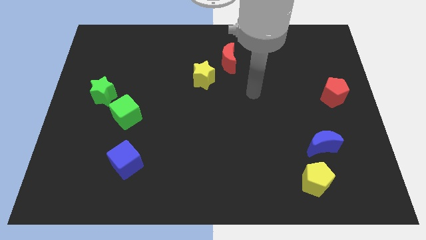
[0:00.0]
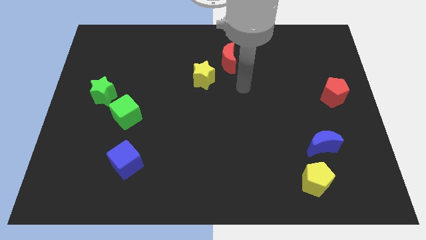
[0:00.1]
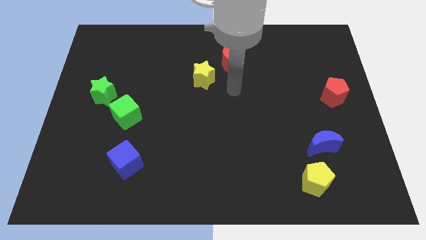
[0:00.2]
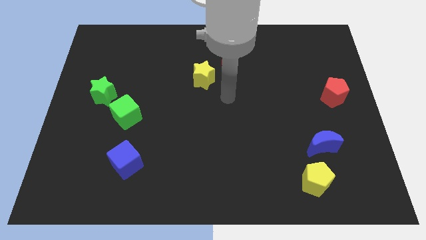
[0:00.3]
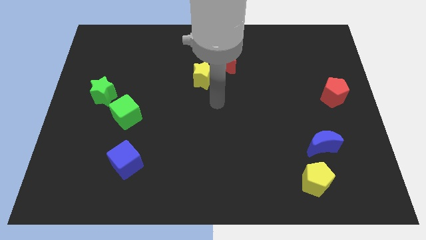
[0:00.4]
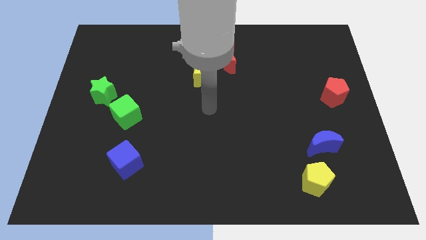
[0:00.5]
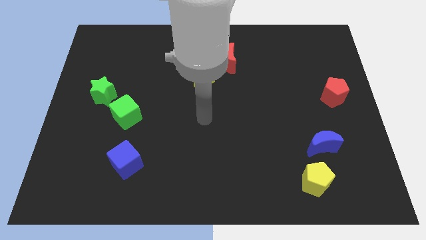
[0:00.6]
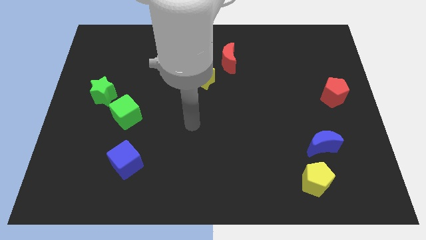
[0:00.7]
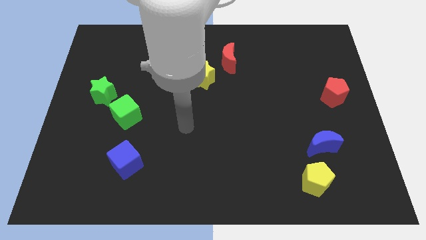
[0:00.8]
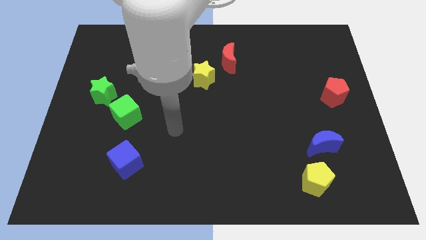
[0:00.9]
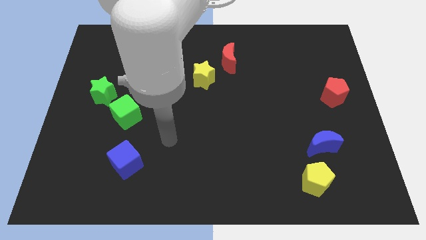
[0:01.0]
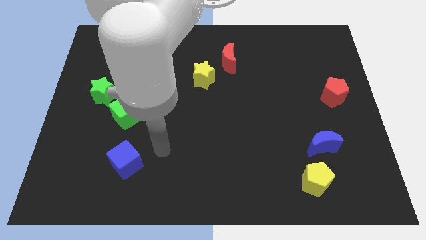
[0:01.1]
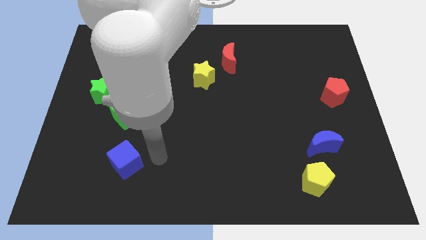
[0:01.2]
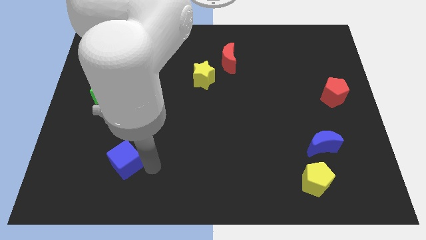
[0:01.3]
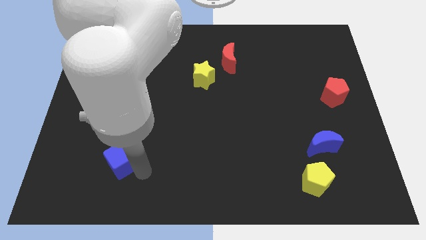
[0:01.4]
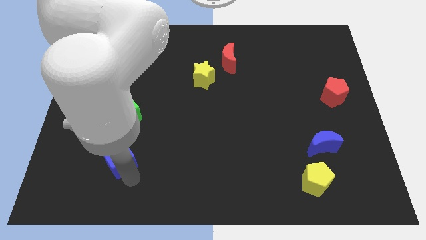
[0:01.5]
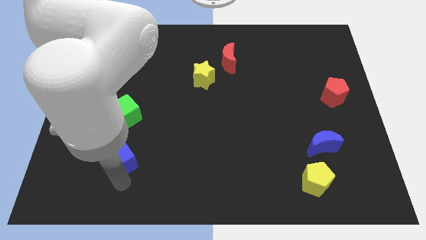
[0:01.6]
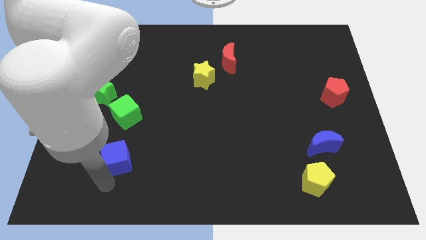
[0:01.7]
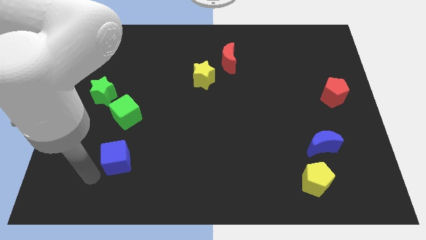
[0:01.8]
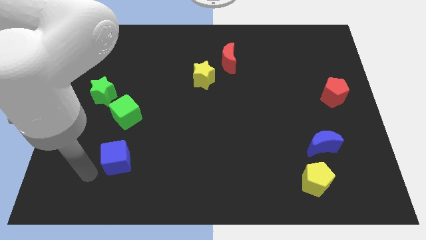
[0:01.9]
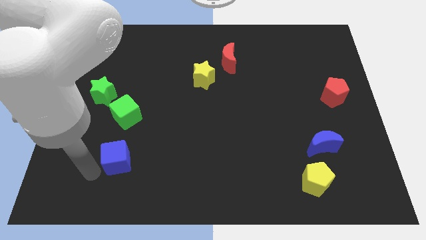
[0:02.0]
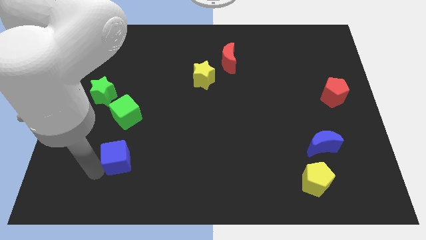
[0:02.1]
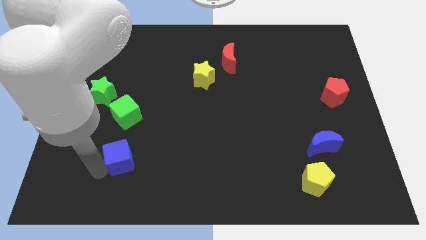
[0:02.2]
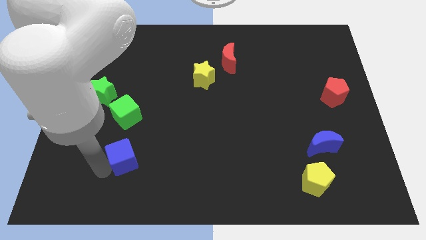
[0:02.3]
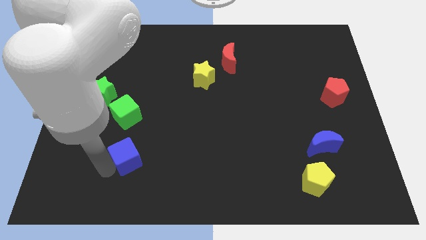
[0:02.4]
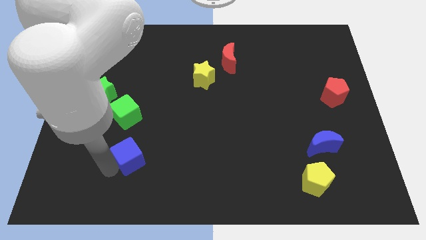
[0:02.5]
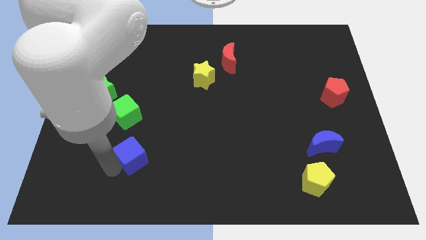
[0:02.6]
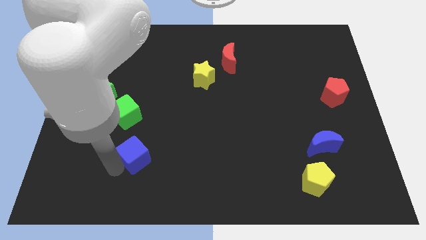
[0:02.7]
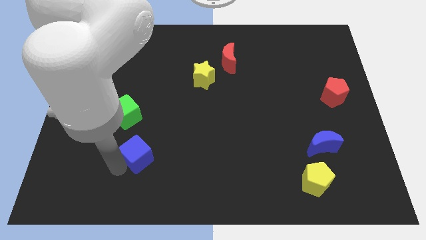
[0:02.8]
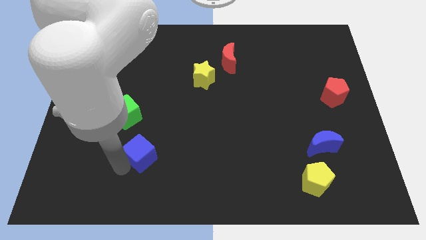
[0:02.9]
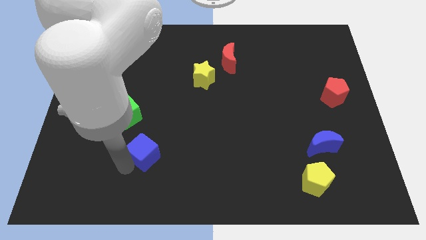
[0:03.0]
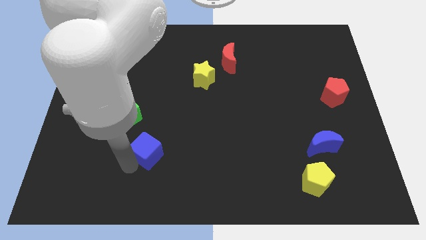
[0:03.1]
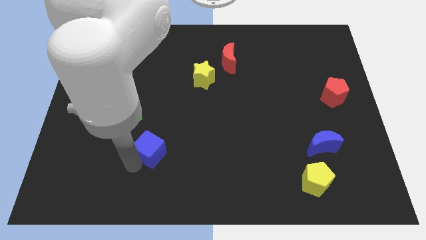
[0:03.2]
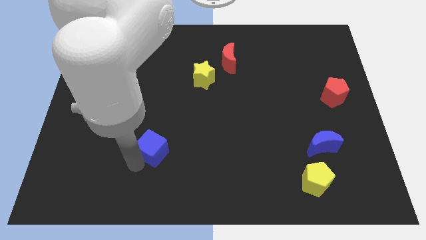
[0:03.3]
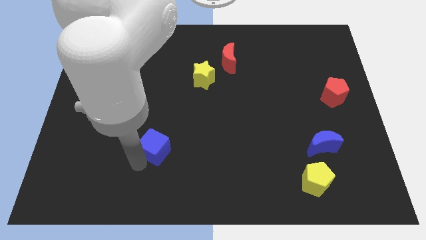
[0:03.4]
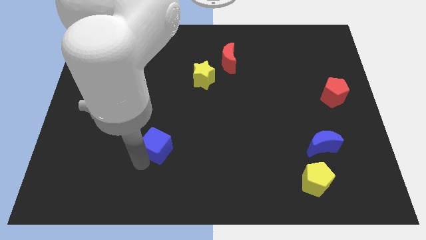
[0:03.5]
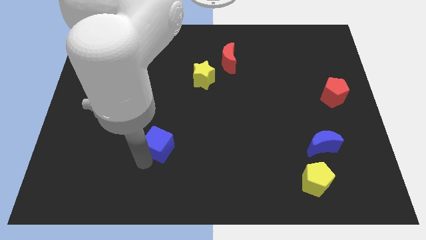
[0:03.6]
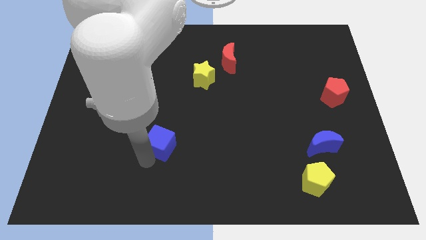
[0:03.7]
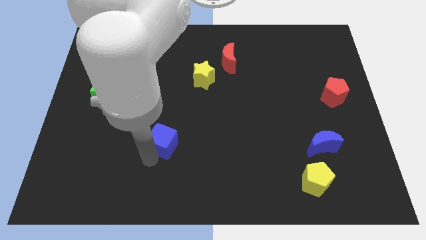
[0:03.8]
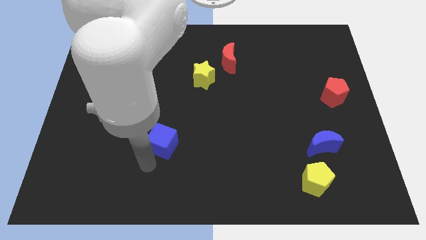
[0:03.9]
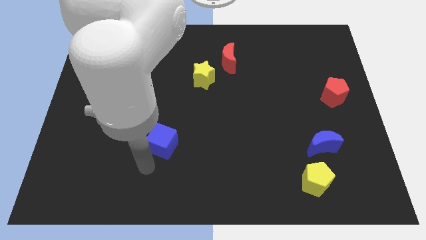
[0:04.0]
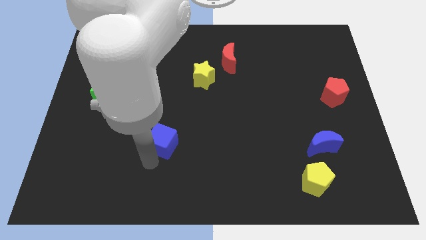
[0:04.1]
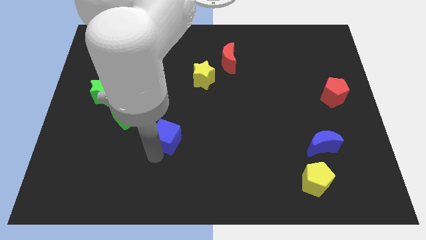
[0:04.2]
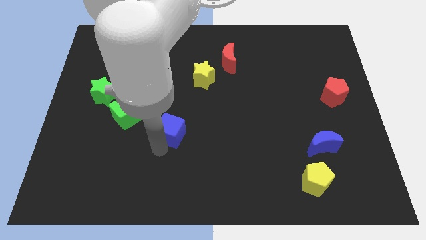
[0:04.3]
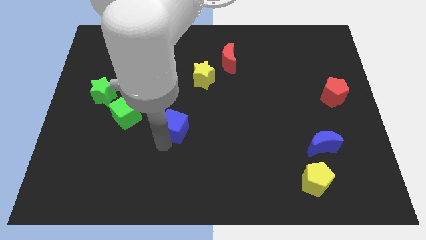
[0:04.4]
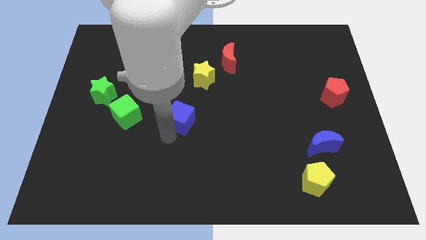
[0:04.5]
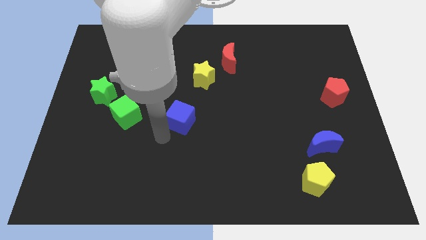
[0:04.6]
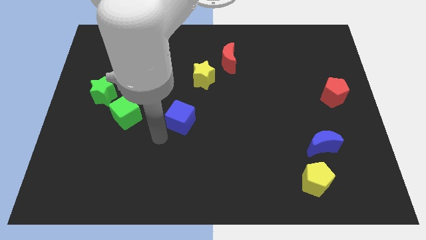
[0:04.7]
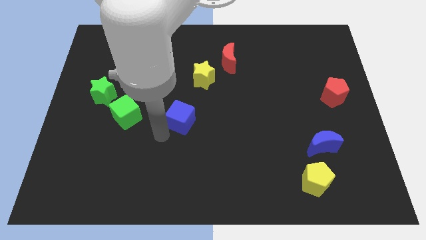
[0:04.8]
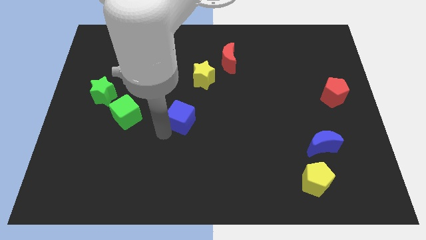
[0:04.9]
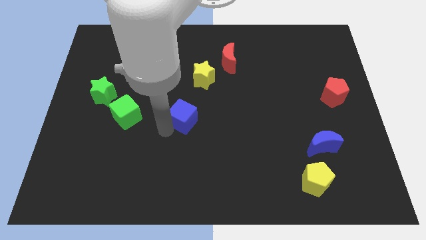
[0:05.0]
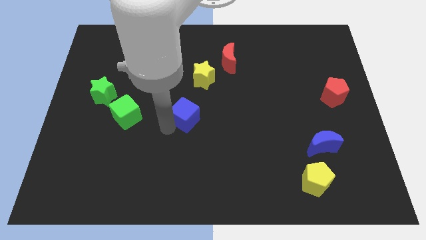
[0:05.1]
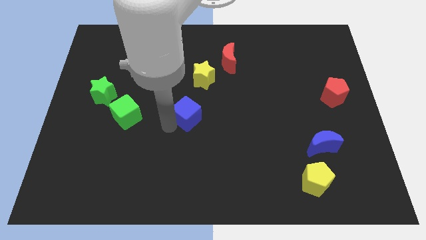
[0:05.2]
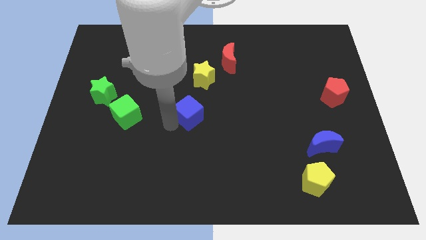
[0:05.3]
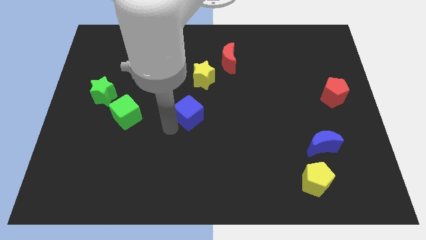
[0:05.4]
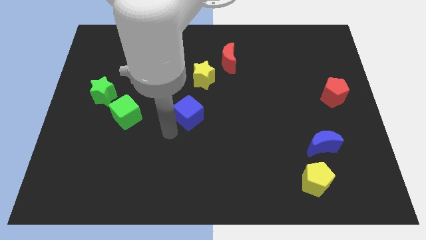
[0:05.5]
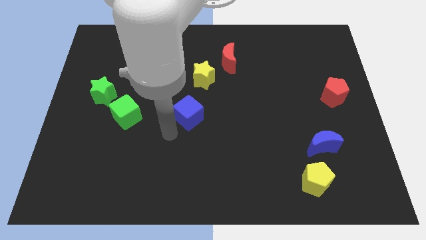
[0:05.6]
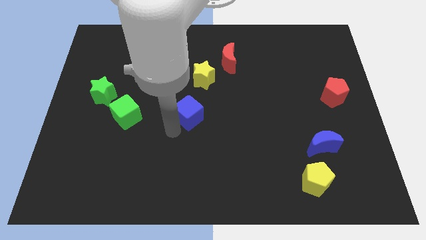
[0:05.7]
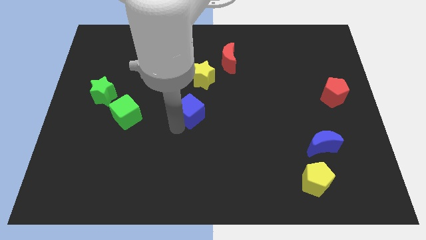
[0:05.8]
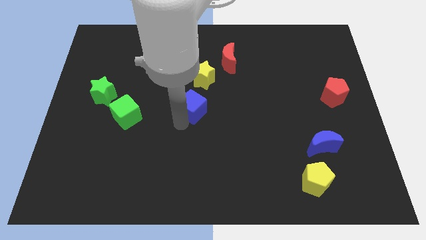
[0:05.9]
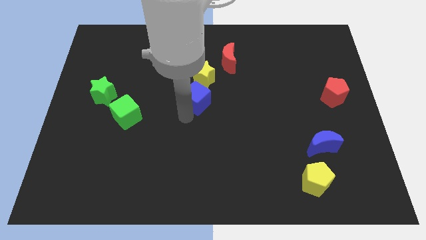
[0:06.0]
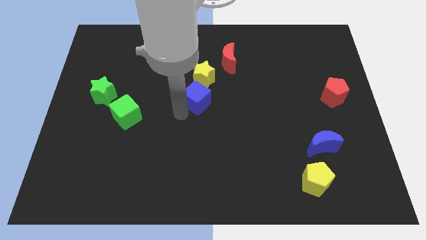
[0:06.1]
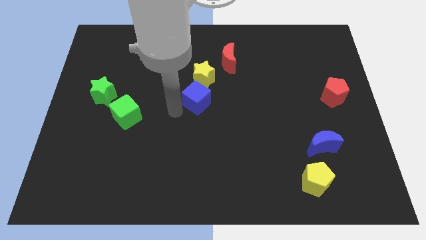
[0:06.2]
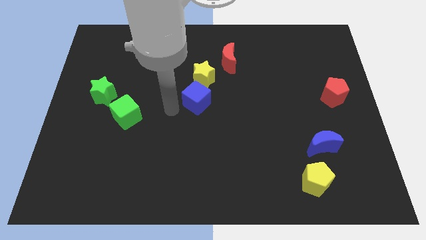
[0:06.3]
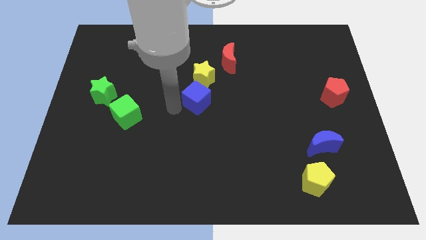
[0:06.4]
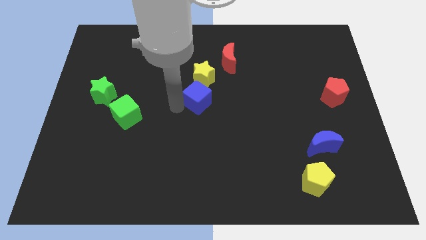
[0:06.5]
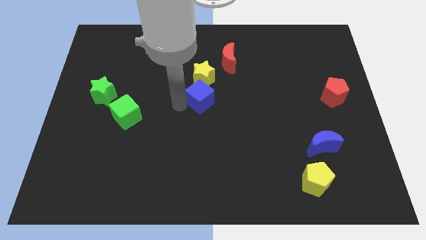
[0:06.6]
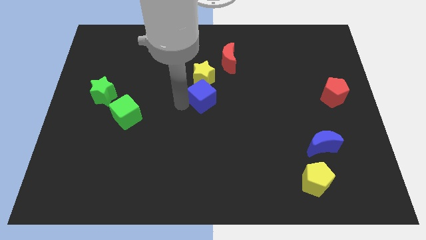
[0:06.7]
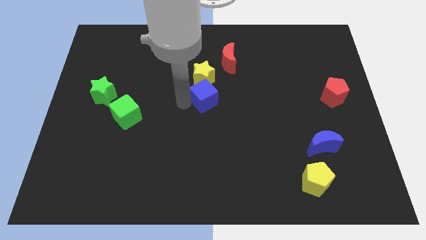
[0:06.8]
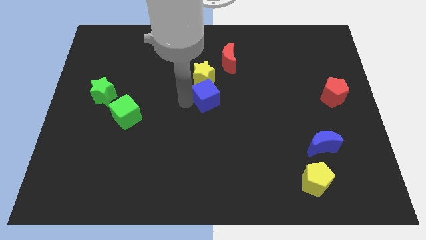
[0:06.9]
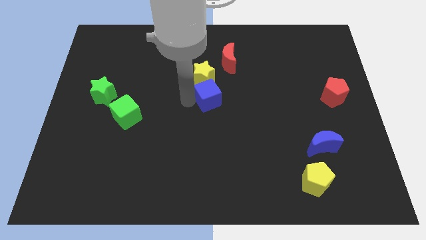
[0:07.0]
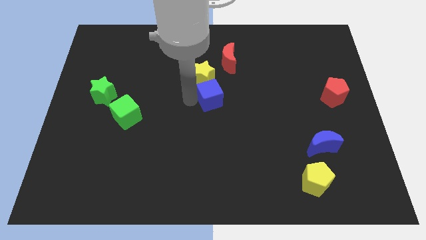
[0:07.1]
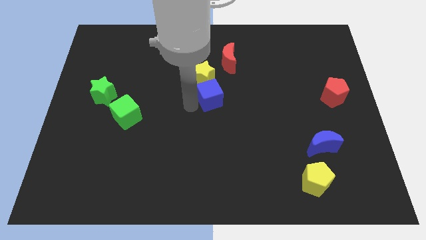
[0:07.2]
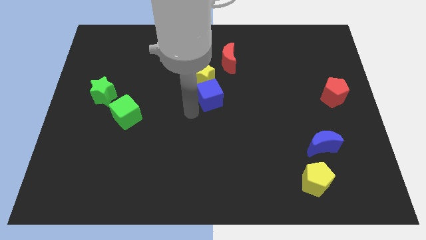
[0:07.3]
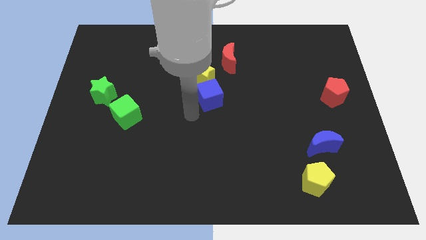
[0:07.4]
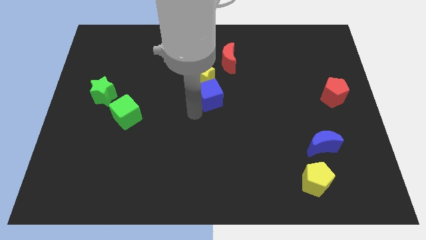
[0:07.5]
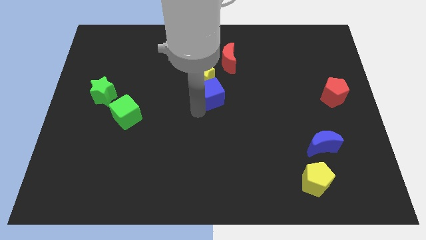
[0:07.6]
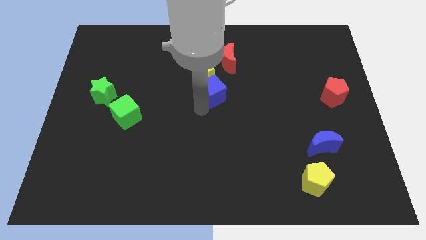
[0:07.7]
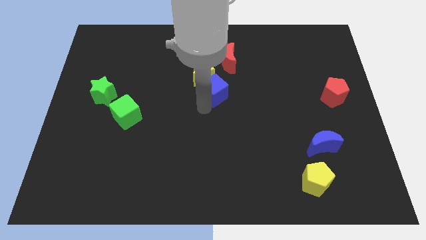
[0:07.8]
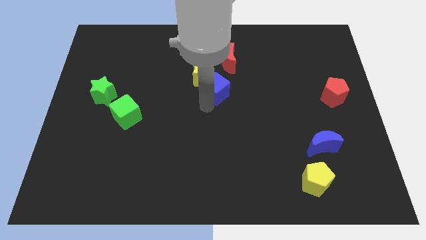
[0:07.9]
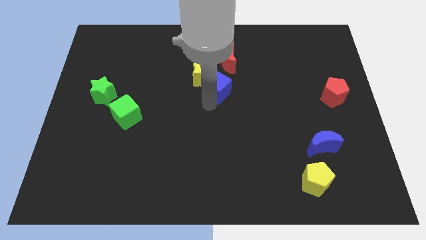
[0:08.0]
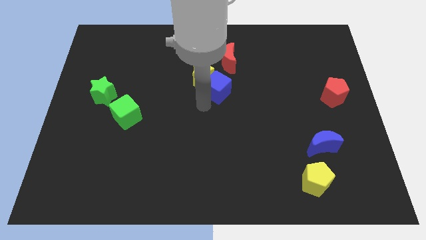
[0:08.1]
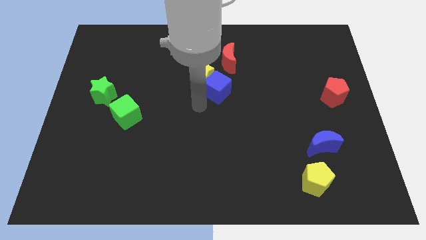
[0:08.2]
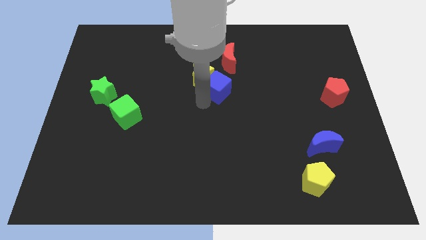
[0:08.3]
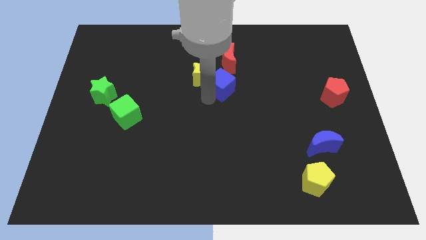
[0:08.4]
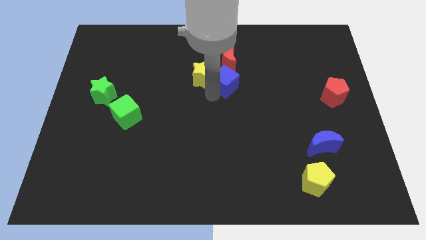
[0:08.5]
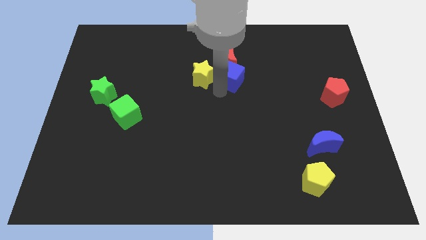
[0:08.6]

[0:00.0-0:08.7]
put the blue cube next to the red moon
